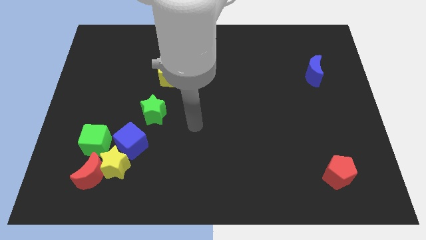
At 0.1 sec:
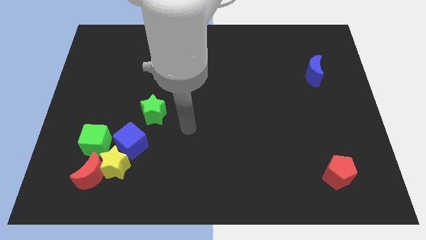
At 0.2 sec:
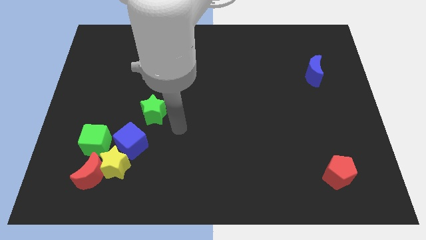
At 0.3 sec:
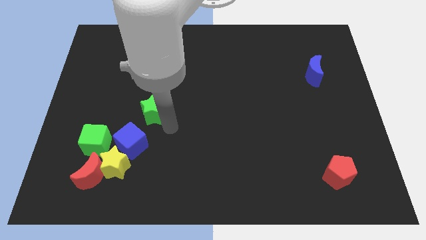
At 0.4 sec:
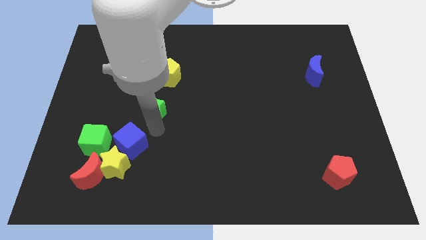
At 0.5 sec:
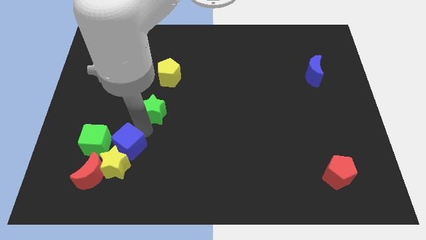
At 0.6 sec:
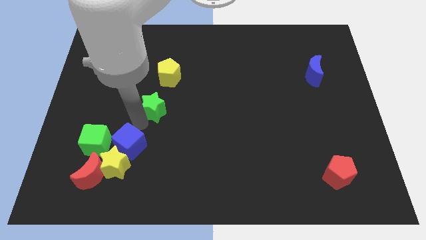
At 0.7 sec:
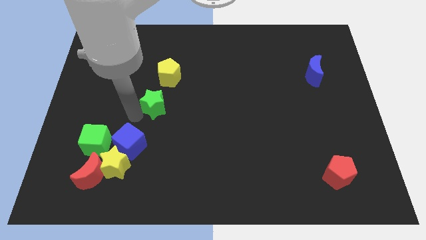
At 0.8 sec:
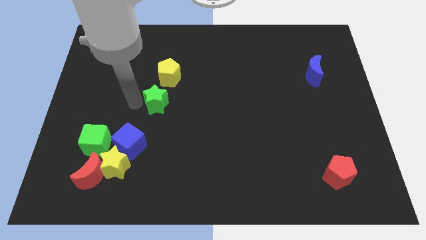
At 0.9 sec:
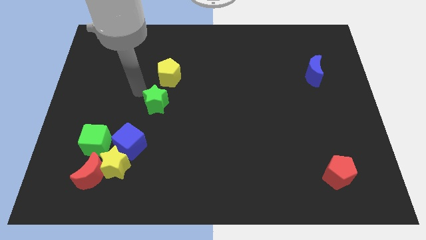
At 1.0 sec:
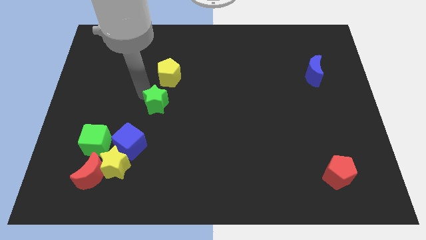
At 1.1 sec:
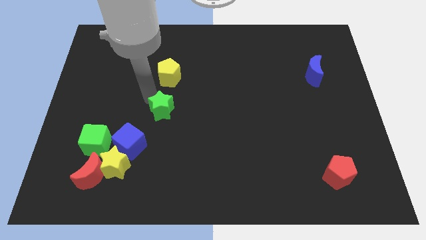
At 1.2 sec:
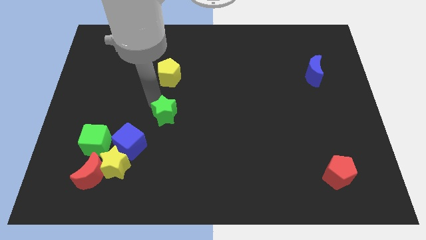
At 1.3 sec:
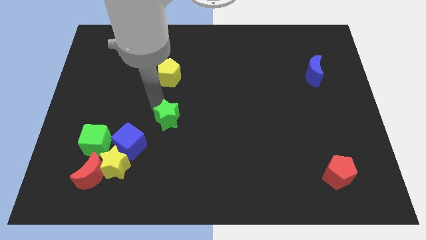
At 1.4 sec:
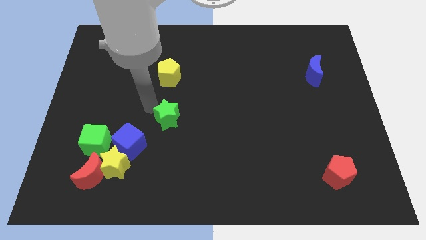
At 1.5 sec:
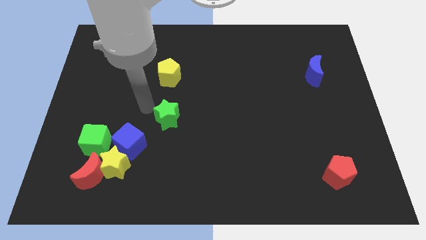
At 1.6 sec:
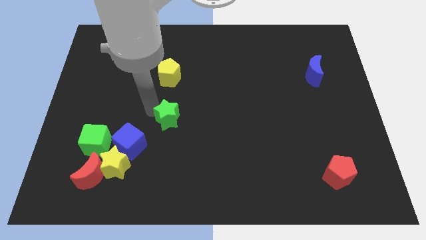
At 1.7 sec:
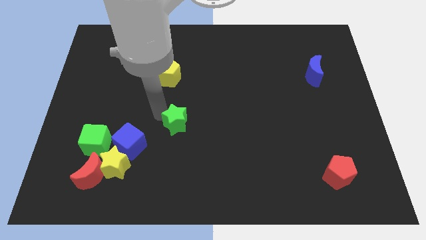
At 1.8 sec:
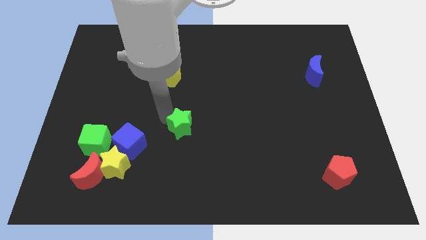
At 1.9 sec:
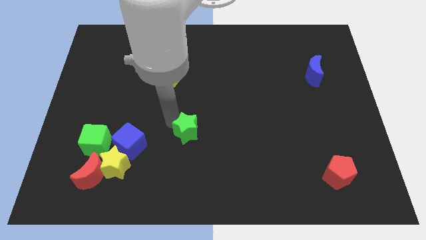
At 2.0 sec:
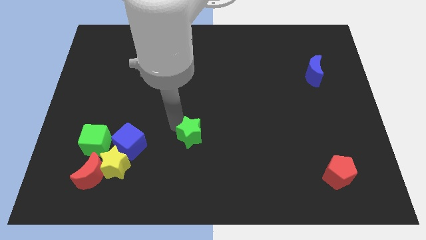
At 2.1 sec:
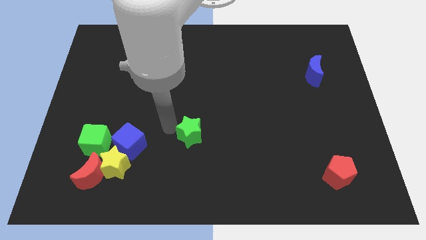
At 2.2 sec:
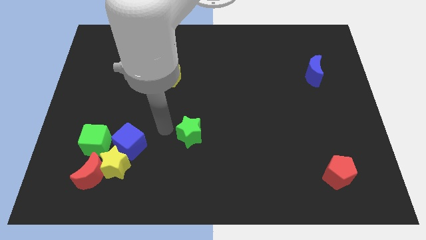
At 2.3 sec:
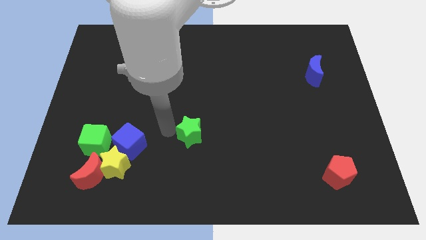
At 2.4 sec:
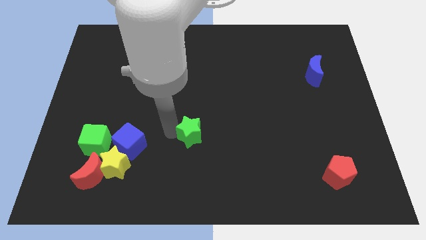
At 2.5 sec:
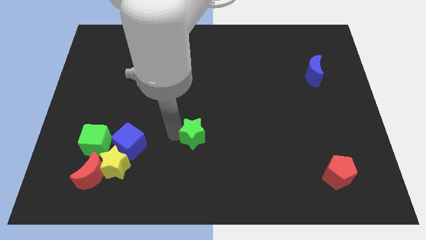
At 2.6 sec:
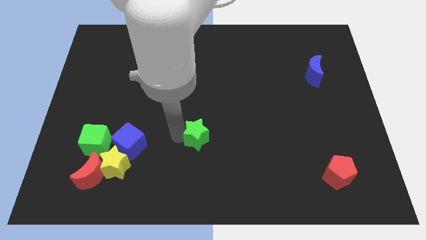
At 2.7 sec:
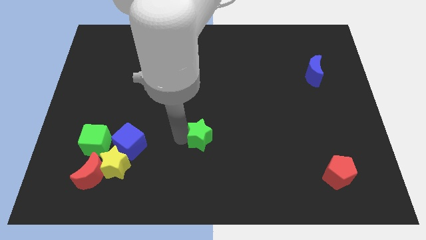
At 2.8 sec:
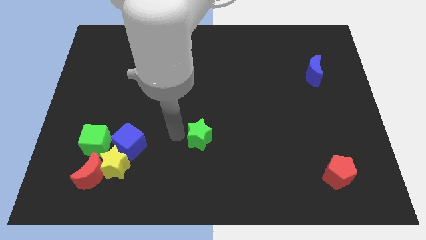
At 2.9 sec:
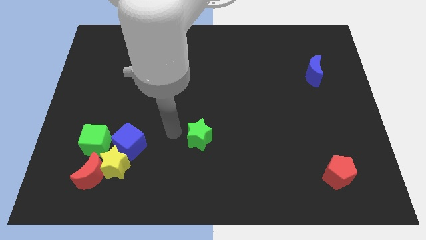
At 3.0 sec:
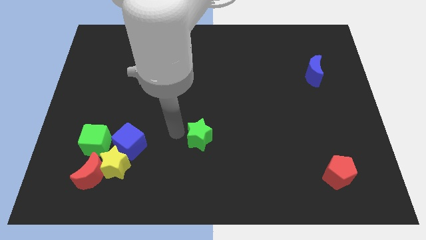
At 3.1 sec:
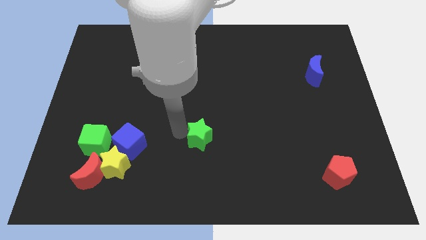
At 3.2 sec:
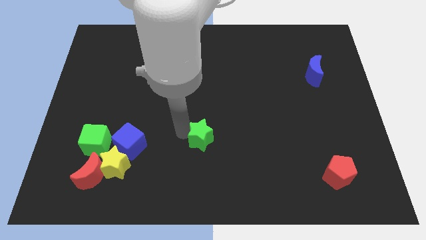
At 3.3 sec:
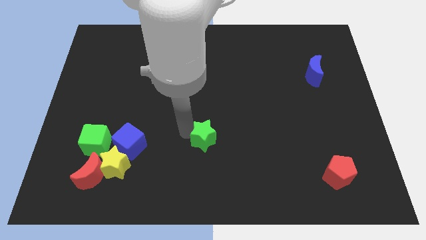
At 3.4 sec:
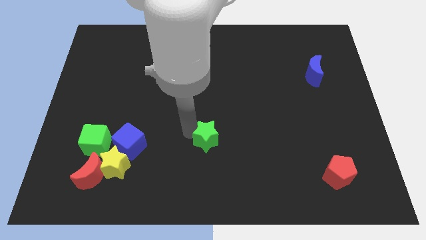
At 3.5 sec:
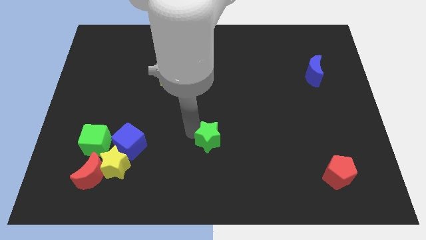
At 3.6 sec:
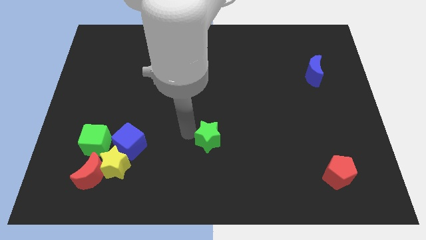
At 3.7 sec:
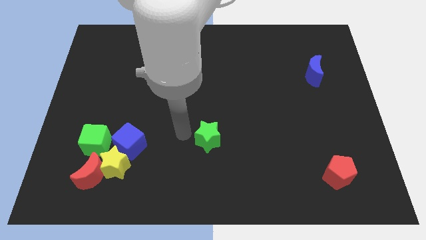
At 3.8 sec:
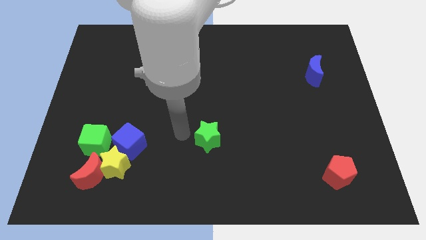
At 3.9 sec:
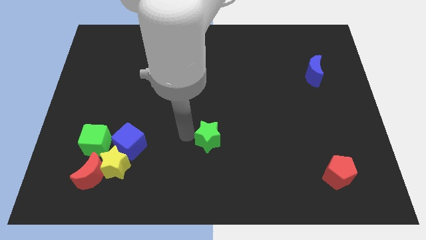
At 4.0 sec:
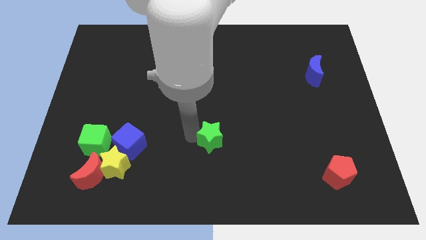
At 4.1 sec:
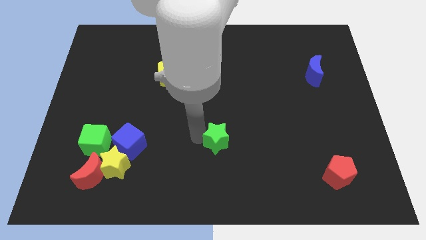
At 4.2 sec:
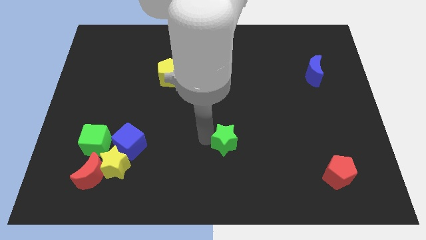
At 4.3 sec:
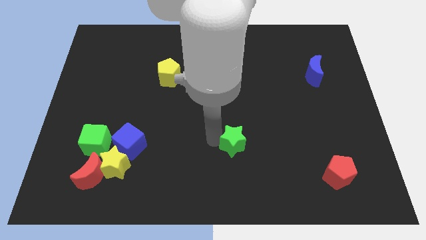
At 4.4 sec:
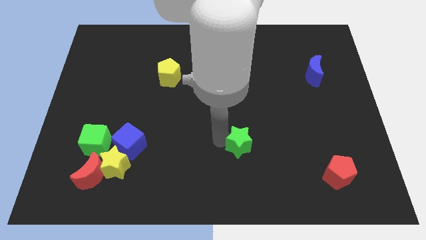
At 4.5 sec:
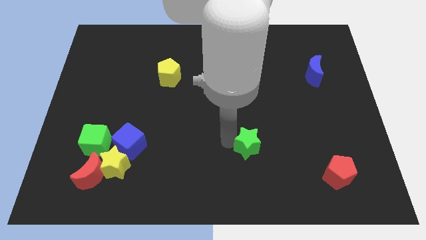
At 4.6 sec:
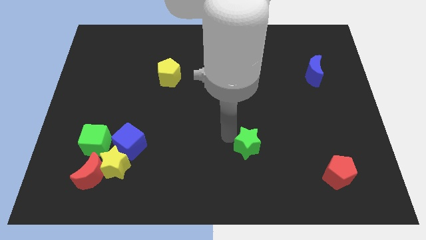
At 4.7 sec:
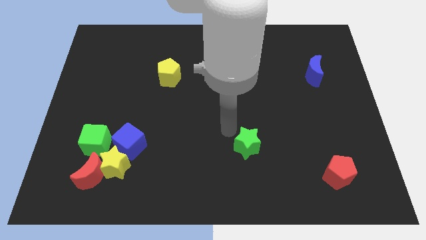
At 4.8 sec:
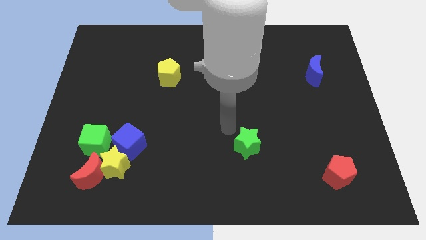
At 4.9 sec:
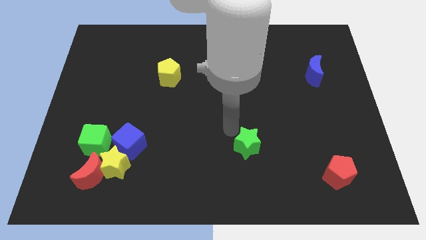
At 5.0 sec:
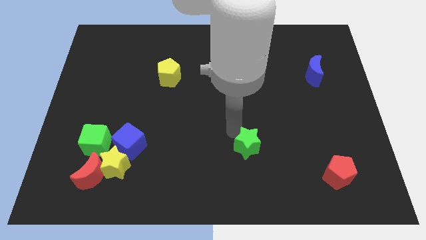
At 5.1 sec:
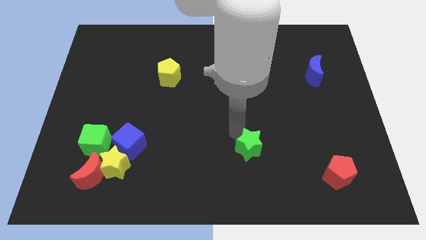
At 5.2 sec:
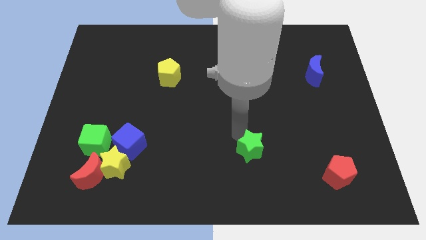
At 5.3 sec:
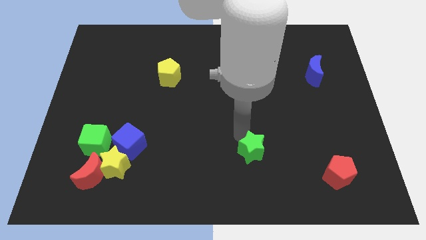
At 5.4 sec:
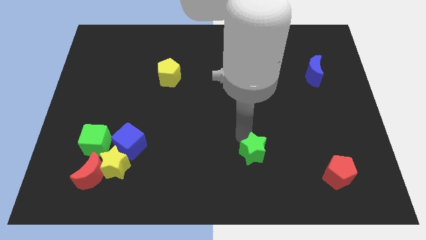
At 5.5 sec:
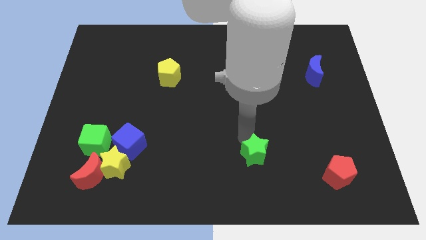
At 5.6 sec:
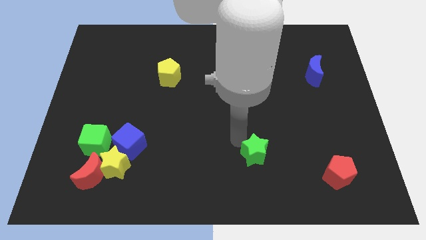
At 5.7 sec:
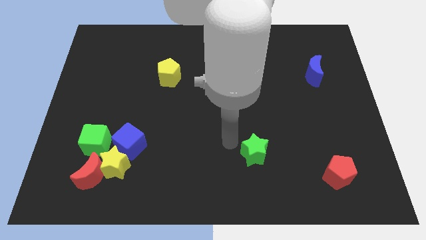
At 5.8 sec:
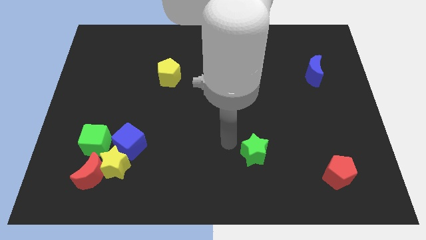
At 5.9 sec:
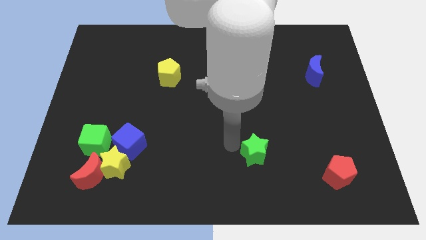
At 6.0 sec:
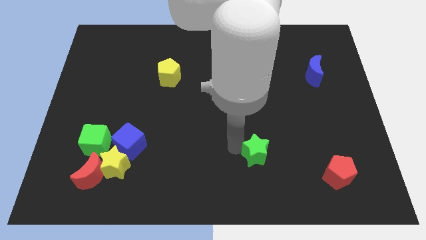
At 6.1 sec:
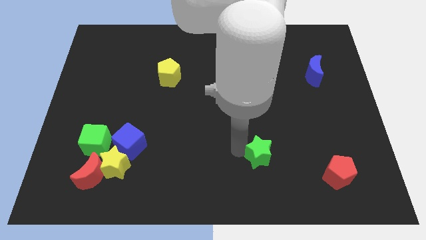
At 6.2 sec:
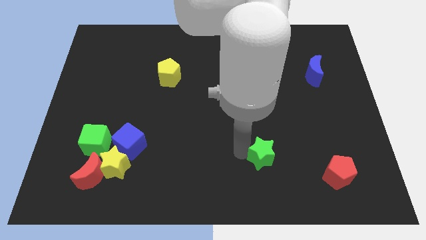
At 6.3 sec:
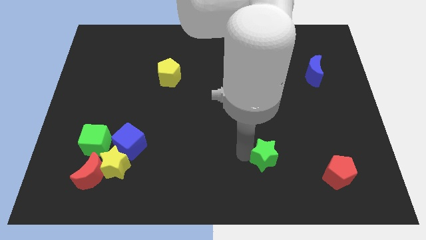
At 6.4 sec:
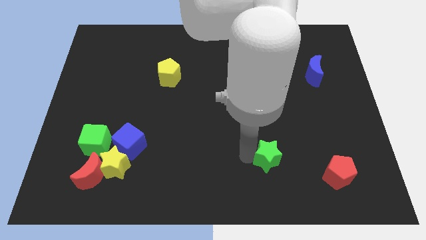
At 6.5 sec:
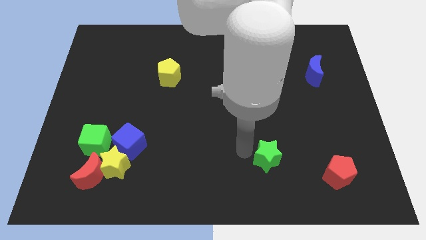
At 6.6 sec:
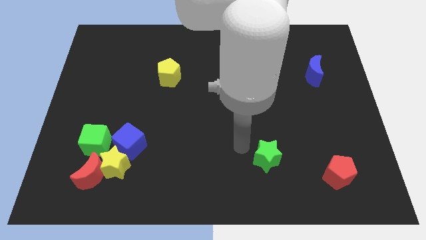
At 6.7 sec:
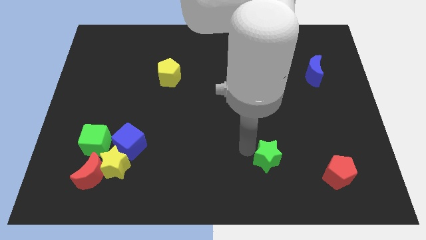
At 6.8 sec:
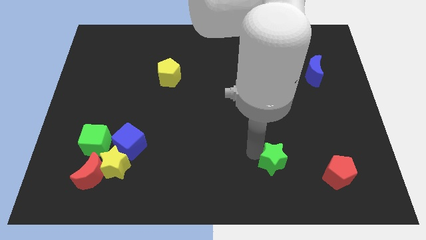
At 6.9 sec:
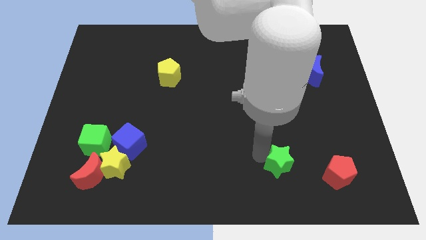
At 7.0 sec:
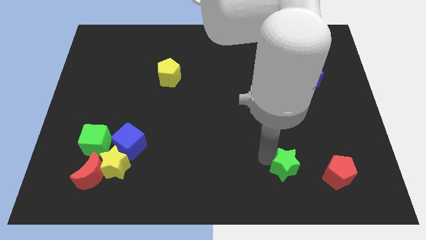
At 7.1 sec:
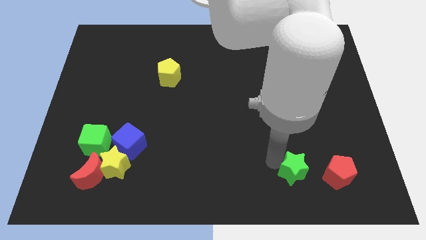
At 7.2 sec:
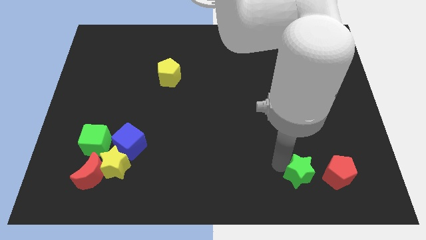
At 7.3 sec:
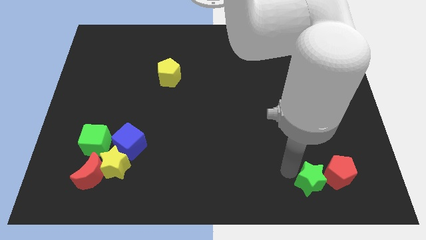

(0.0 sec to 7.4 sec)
push the green star to the red pentagon
